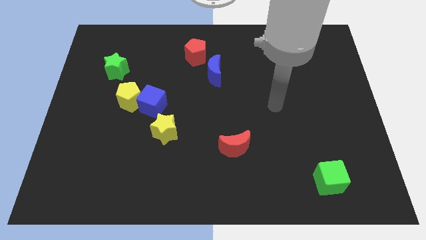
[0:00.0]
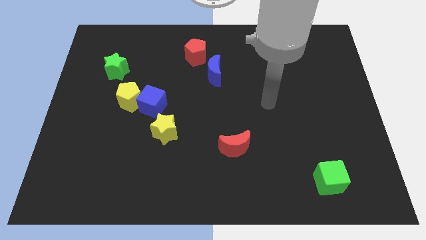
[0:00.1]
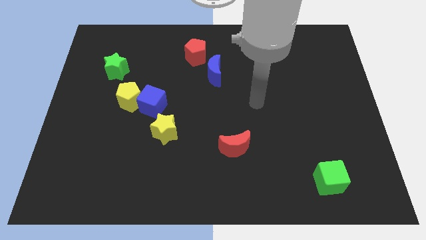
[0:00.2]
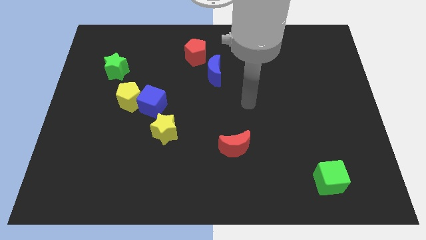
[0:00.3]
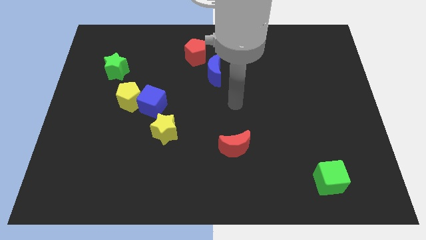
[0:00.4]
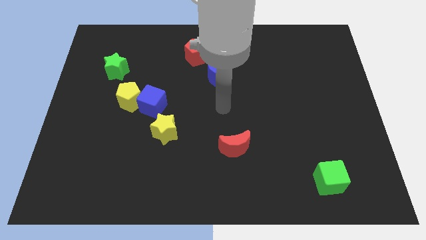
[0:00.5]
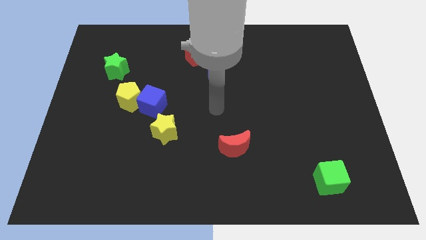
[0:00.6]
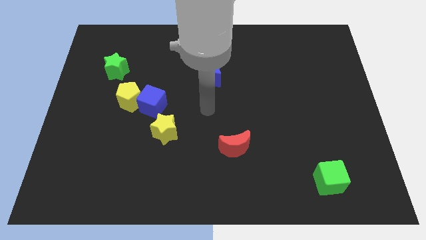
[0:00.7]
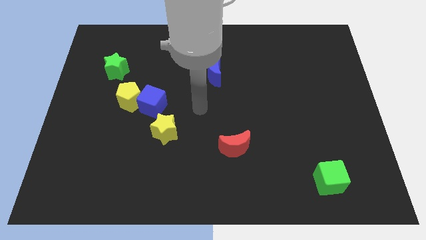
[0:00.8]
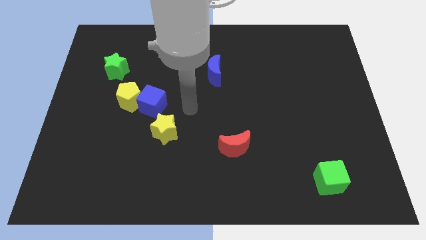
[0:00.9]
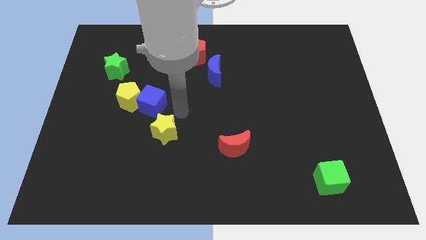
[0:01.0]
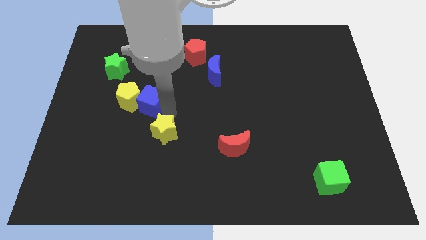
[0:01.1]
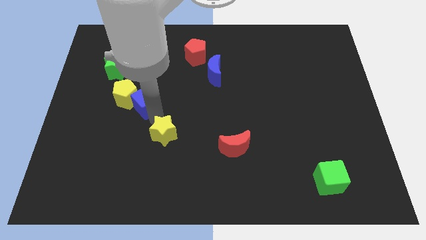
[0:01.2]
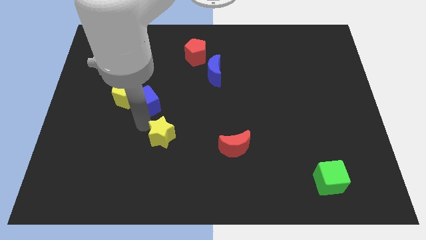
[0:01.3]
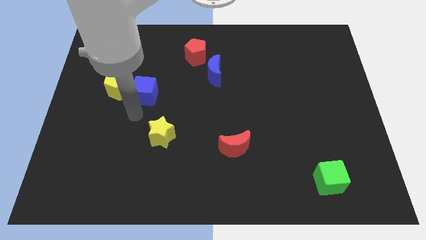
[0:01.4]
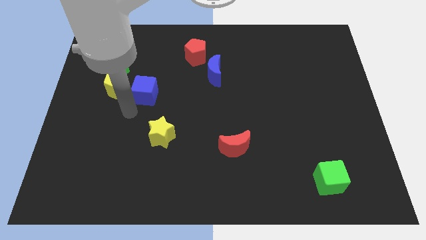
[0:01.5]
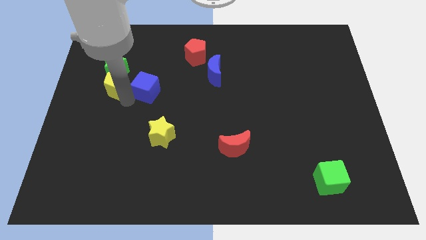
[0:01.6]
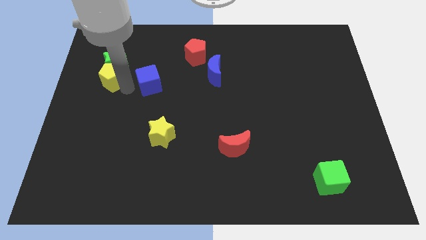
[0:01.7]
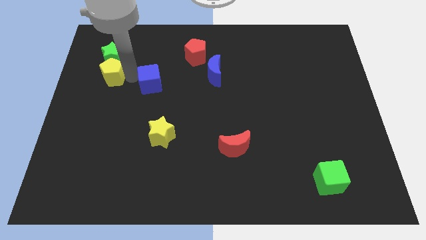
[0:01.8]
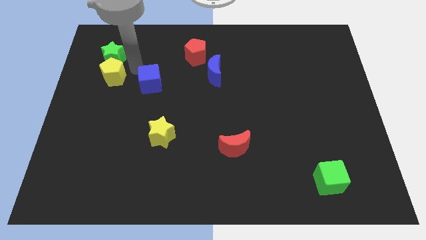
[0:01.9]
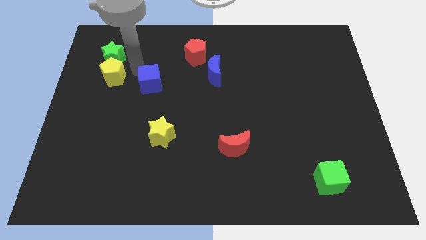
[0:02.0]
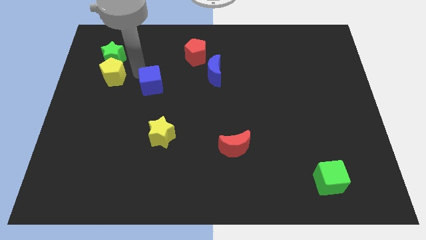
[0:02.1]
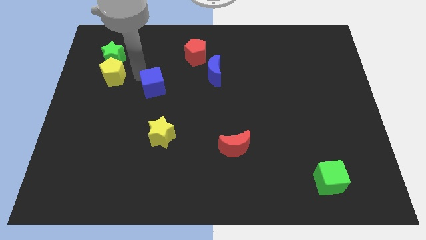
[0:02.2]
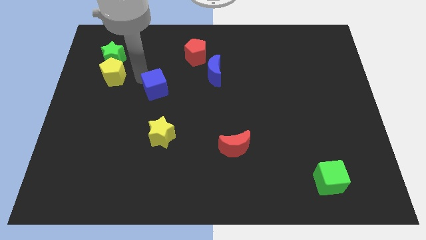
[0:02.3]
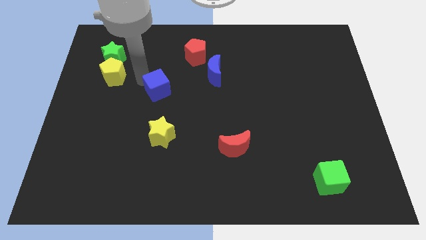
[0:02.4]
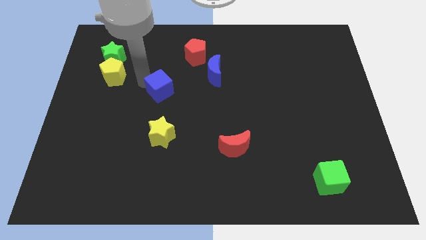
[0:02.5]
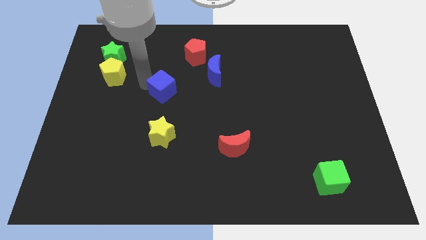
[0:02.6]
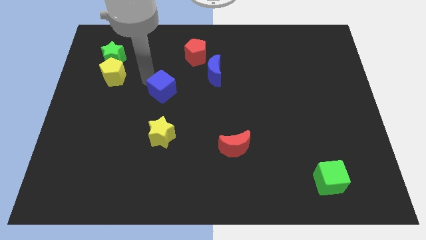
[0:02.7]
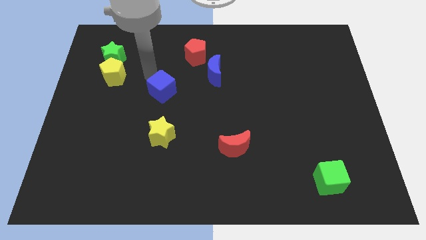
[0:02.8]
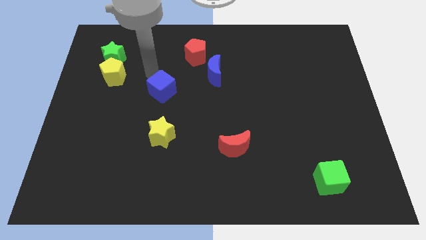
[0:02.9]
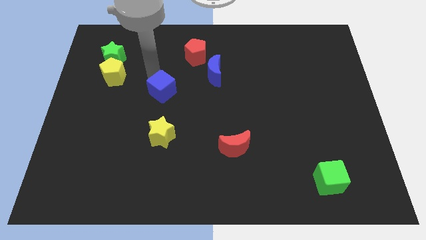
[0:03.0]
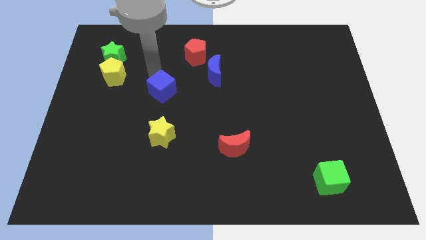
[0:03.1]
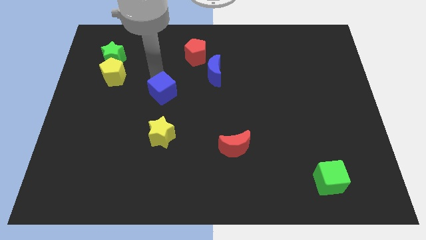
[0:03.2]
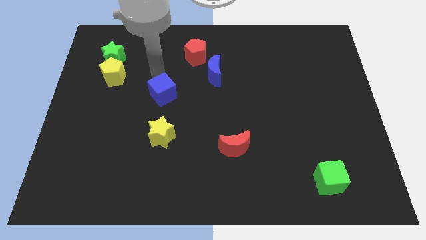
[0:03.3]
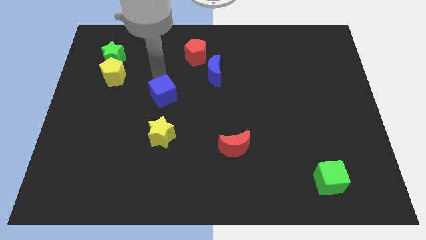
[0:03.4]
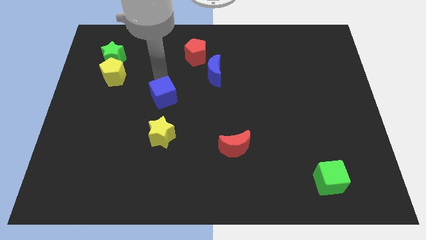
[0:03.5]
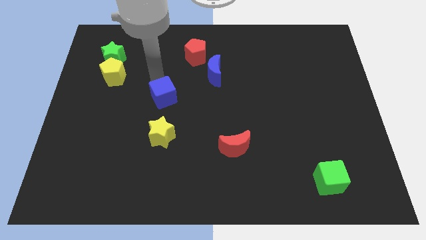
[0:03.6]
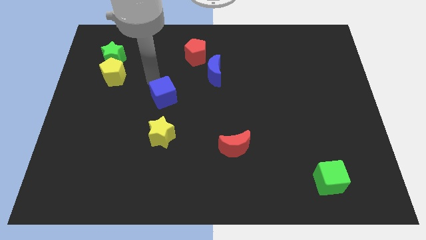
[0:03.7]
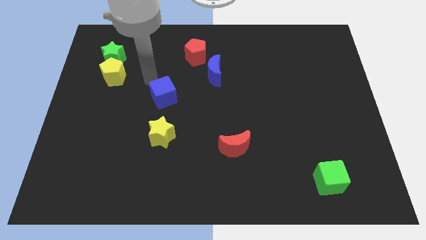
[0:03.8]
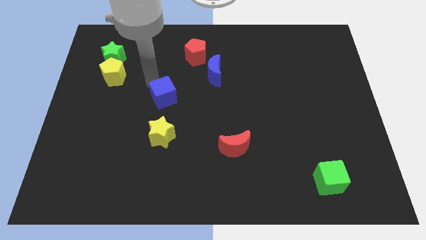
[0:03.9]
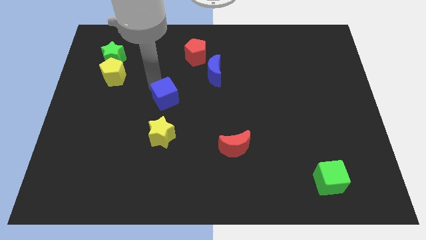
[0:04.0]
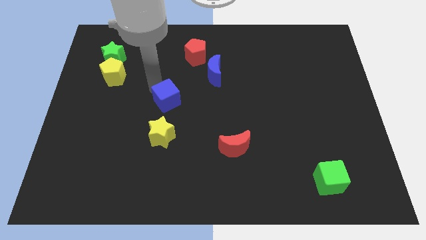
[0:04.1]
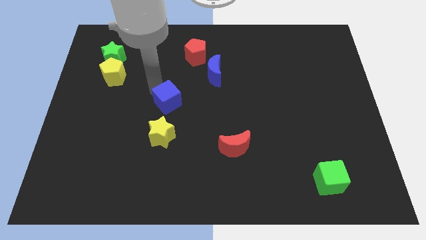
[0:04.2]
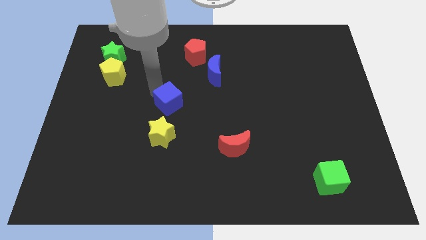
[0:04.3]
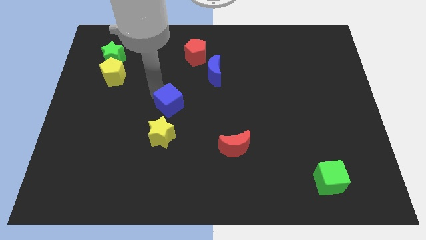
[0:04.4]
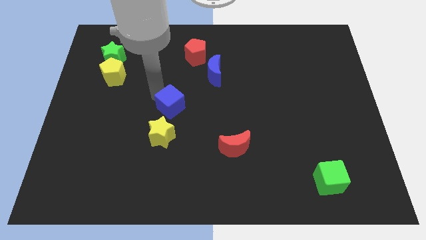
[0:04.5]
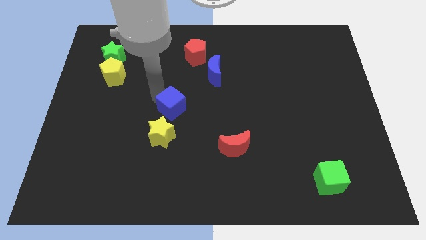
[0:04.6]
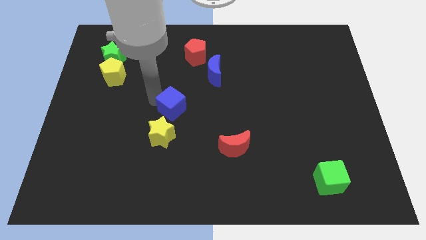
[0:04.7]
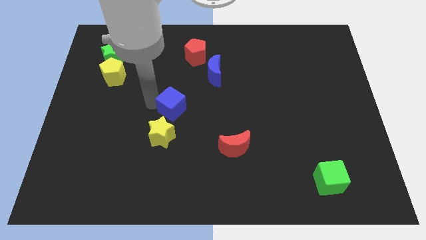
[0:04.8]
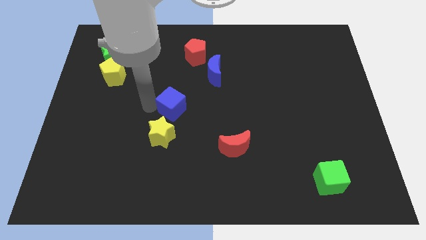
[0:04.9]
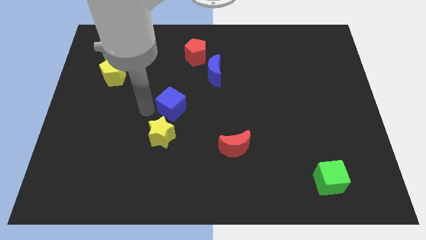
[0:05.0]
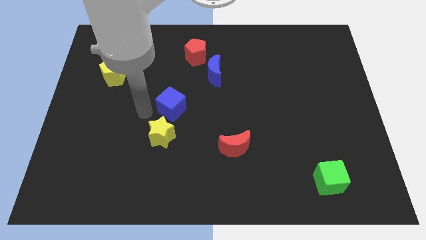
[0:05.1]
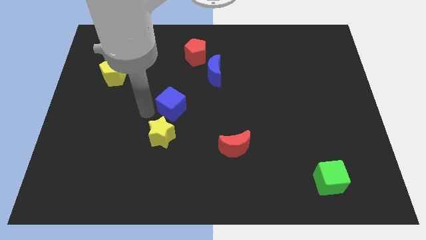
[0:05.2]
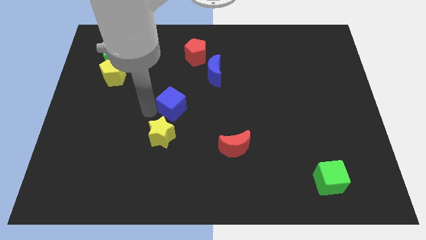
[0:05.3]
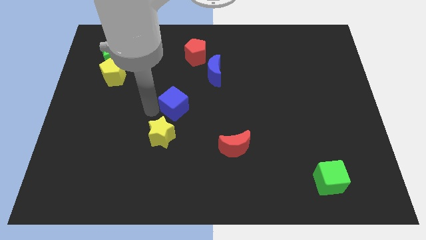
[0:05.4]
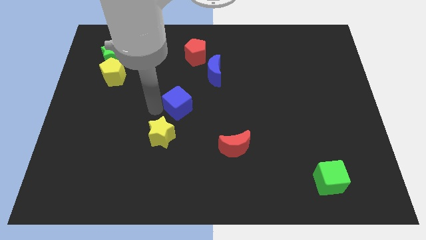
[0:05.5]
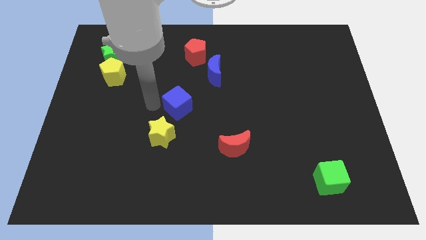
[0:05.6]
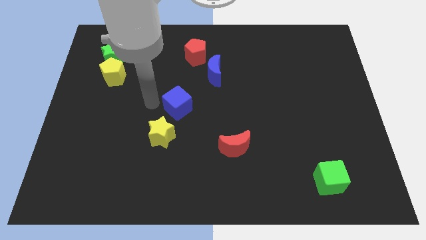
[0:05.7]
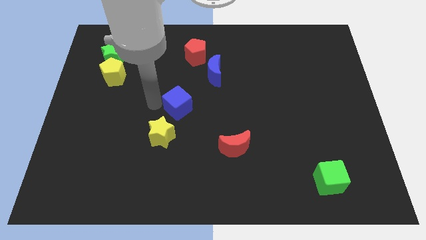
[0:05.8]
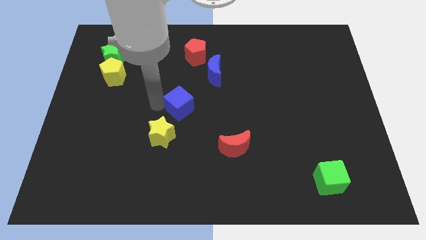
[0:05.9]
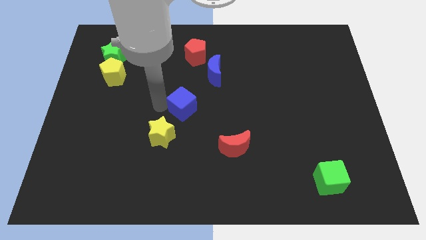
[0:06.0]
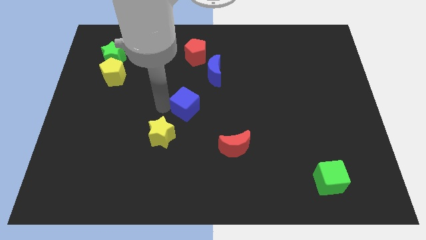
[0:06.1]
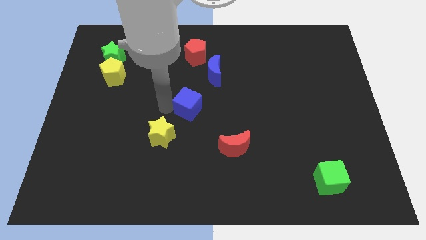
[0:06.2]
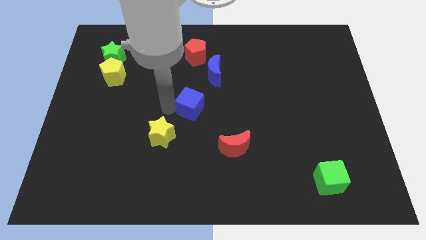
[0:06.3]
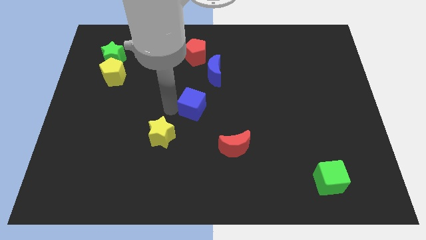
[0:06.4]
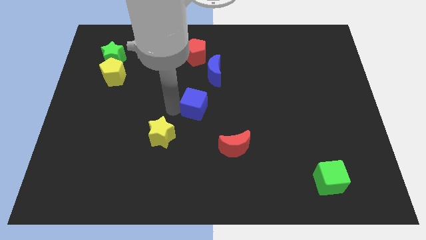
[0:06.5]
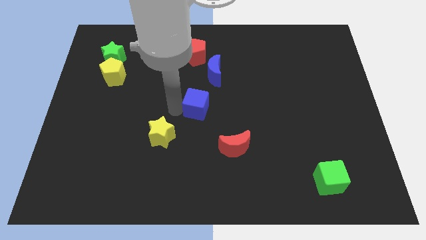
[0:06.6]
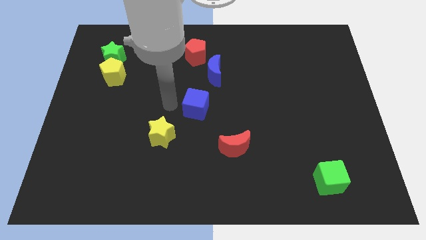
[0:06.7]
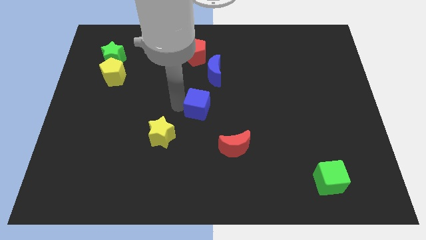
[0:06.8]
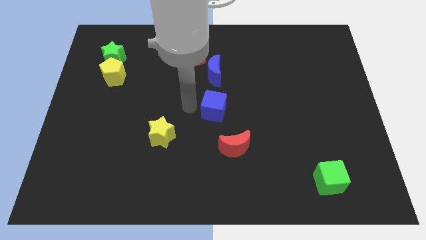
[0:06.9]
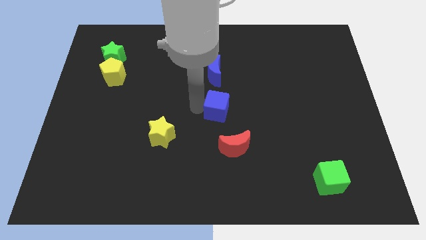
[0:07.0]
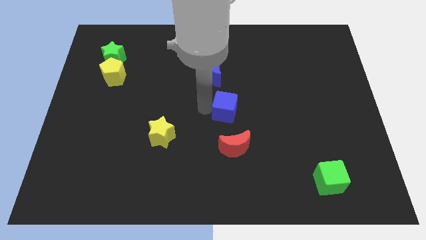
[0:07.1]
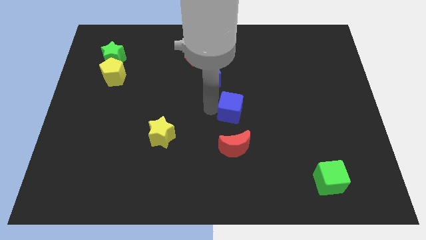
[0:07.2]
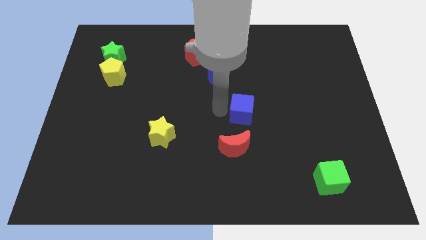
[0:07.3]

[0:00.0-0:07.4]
slide the blue cube to the right

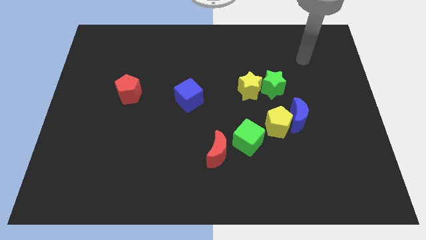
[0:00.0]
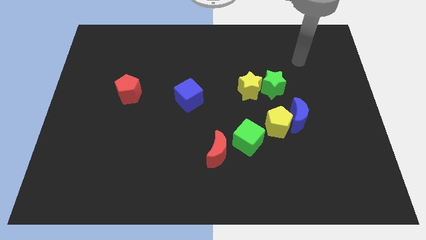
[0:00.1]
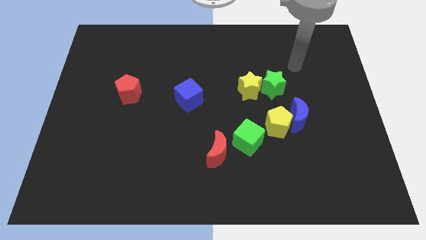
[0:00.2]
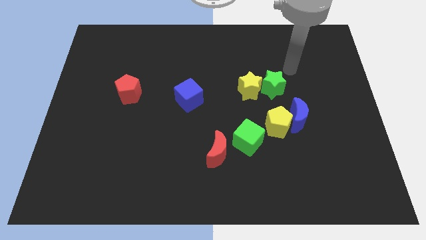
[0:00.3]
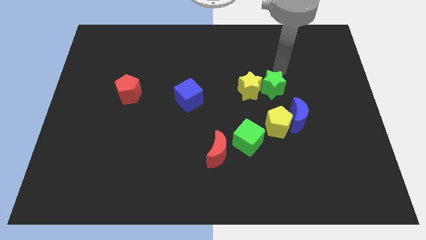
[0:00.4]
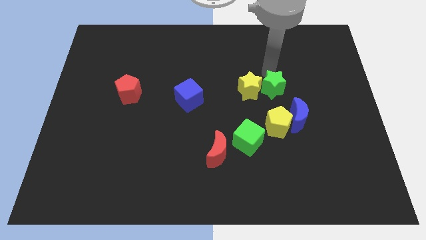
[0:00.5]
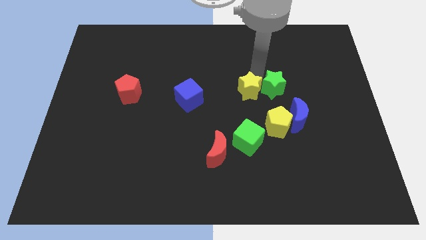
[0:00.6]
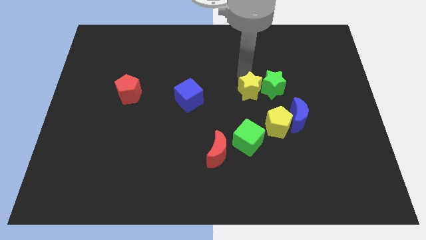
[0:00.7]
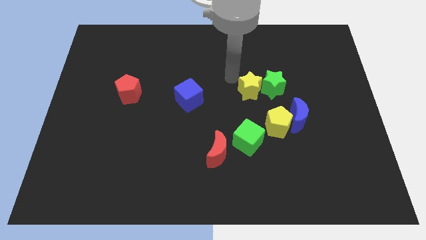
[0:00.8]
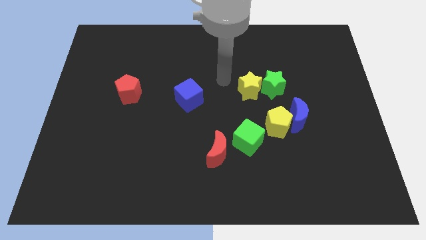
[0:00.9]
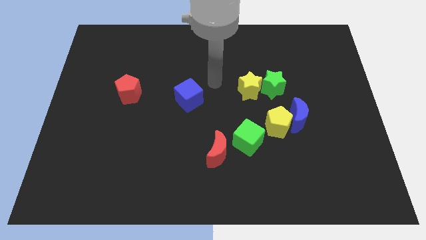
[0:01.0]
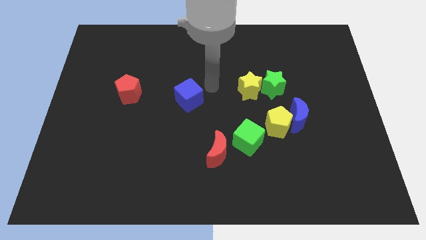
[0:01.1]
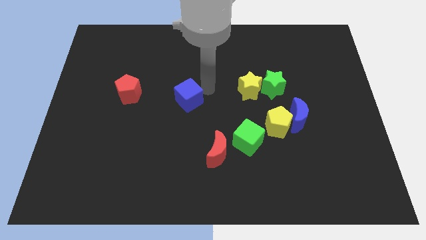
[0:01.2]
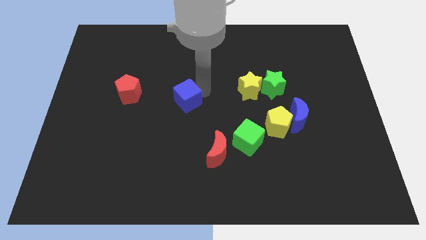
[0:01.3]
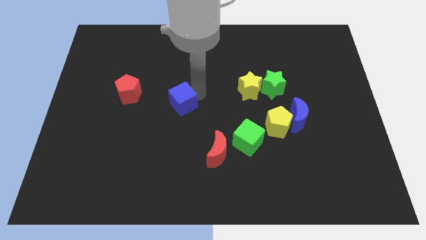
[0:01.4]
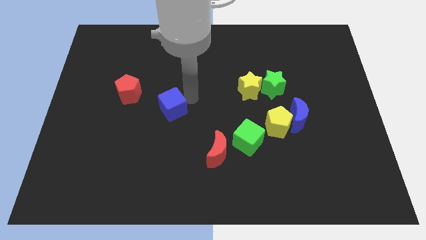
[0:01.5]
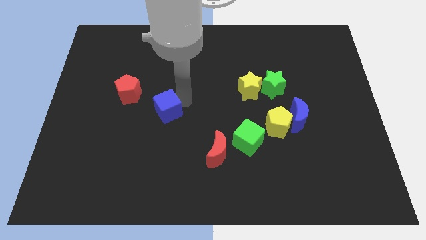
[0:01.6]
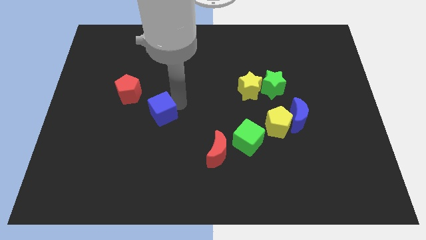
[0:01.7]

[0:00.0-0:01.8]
move the blue cube diagonally down and to the left somewhat
